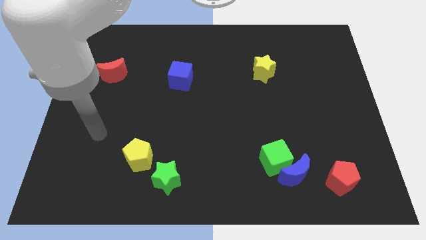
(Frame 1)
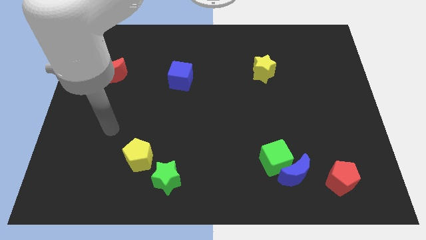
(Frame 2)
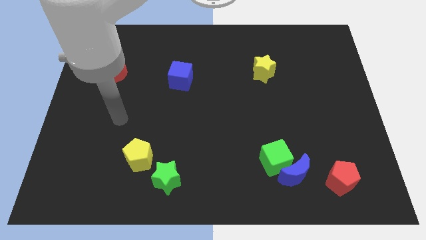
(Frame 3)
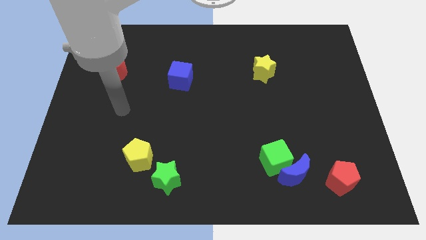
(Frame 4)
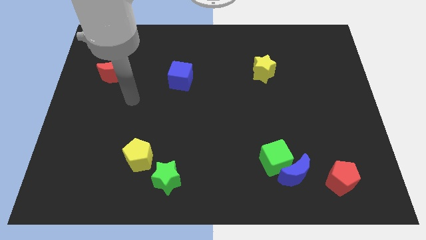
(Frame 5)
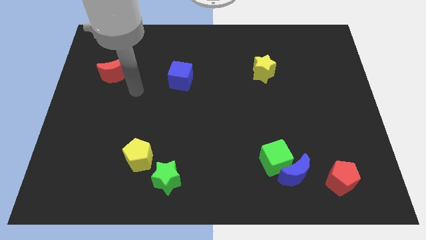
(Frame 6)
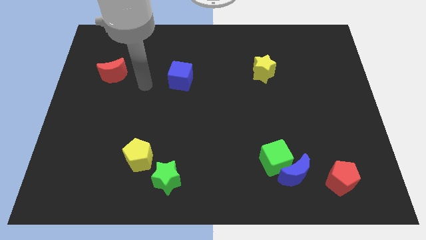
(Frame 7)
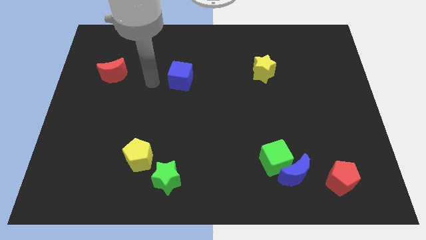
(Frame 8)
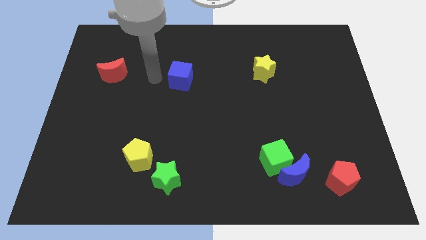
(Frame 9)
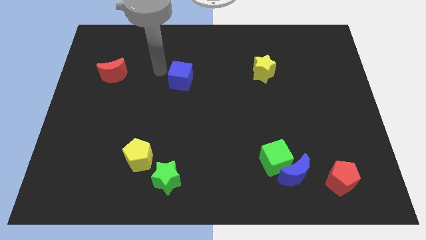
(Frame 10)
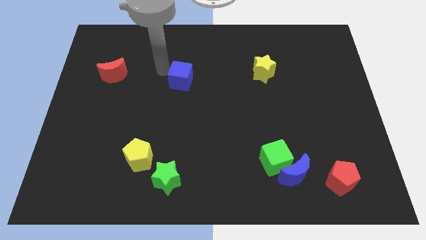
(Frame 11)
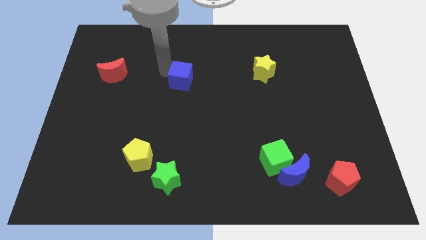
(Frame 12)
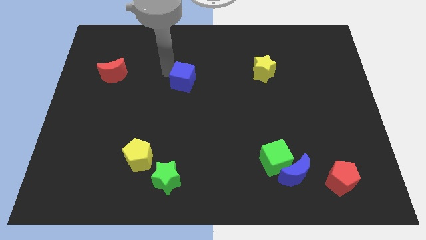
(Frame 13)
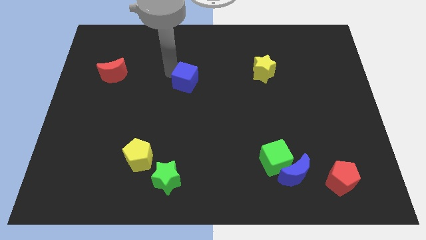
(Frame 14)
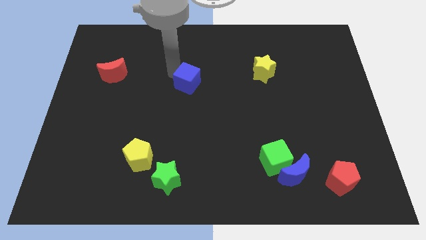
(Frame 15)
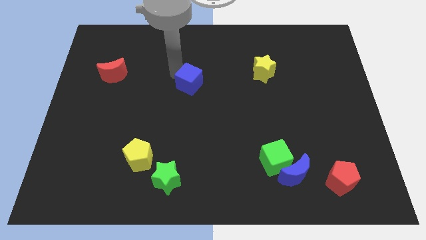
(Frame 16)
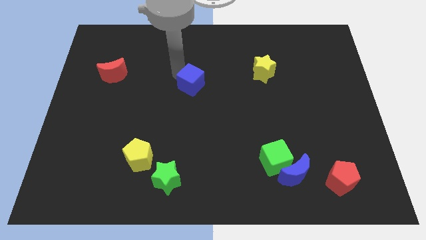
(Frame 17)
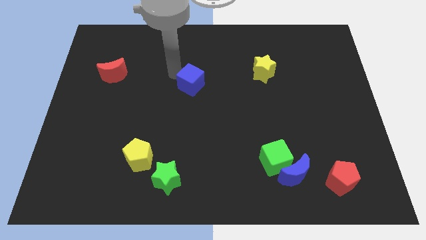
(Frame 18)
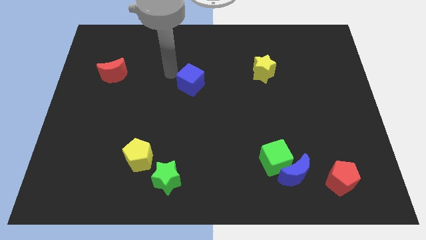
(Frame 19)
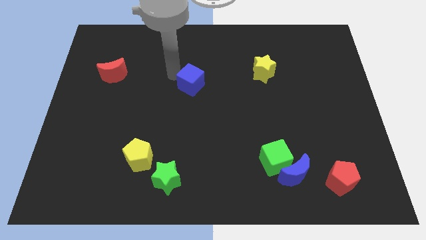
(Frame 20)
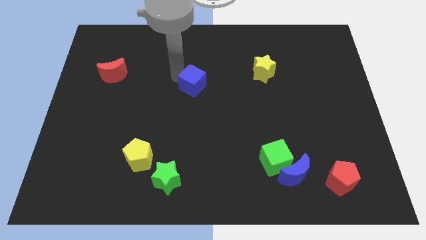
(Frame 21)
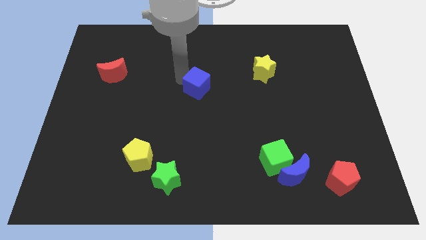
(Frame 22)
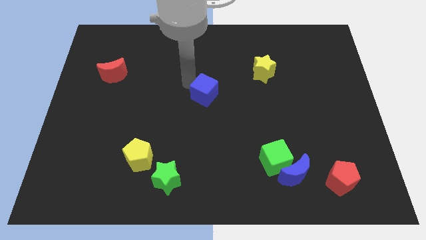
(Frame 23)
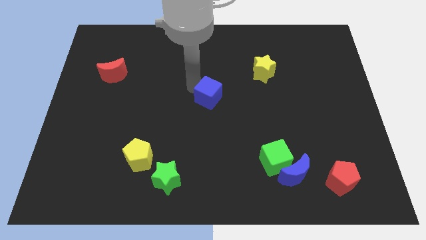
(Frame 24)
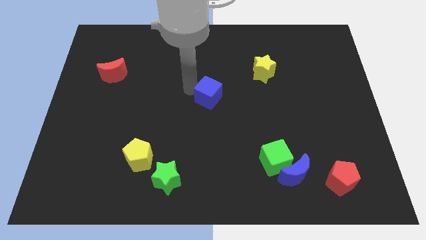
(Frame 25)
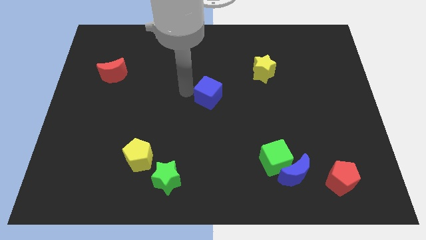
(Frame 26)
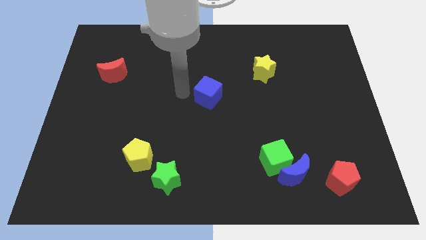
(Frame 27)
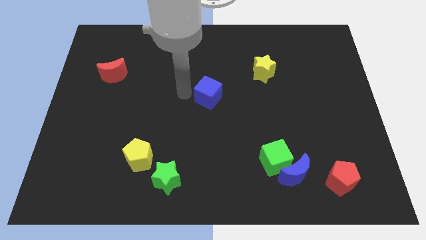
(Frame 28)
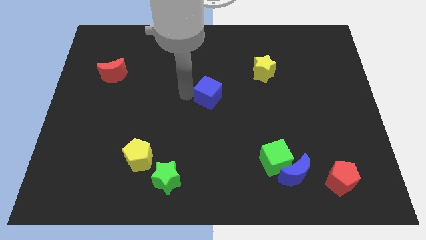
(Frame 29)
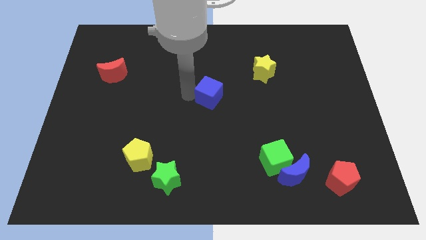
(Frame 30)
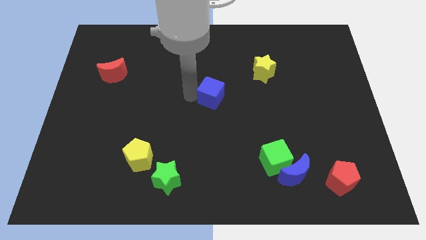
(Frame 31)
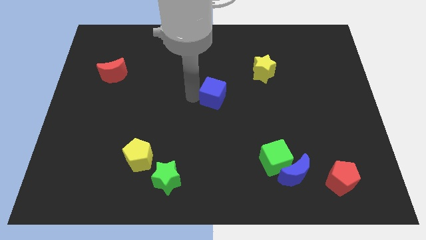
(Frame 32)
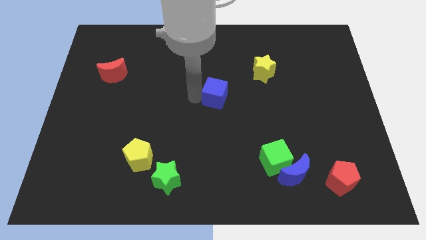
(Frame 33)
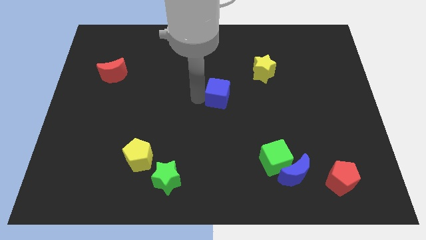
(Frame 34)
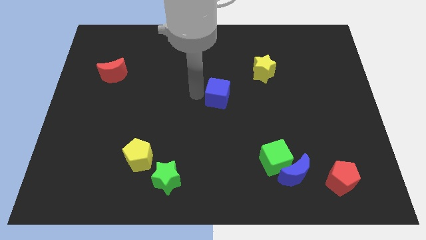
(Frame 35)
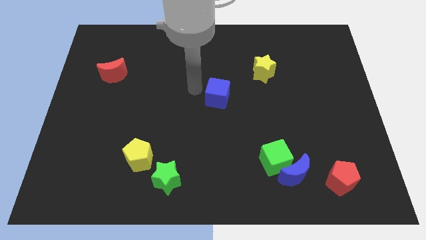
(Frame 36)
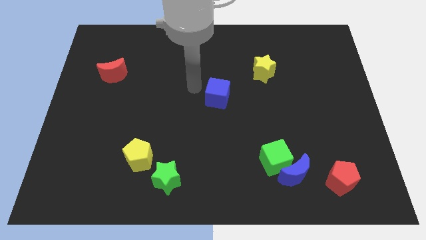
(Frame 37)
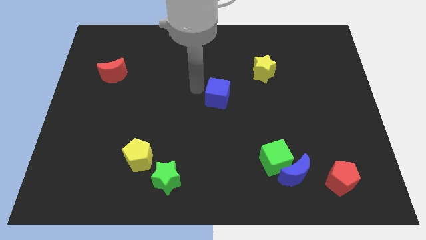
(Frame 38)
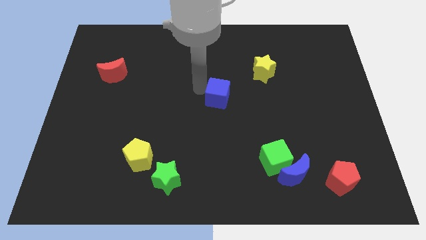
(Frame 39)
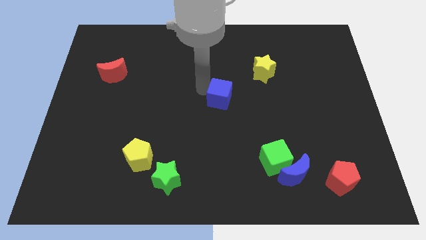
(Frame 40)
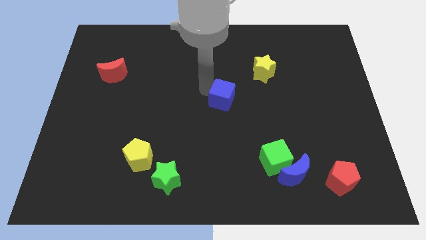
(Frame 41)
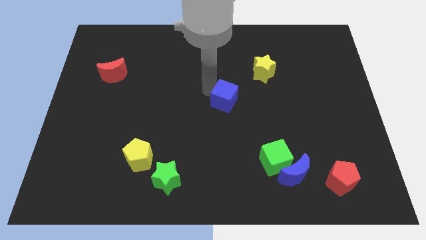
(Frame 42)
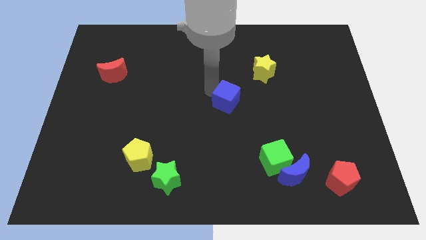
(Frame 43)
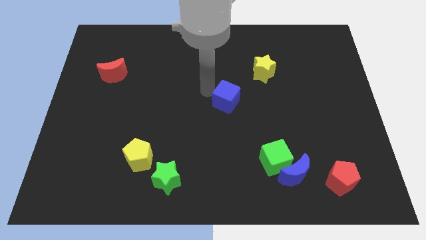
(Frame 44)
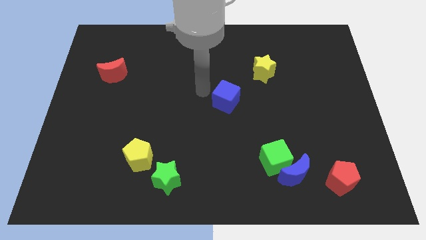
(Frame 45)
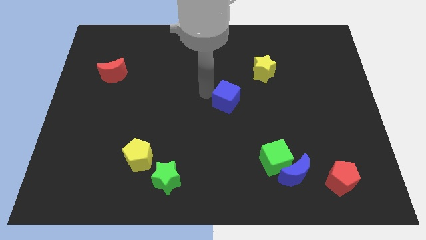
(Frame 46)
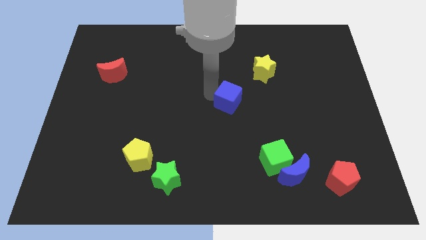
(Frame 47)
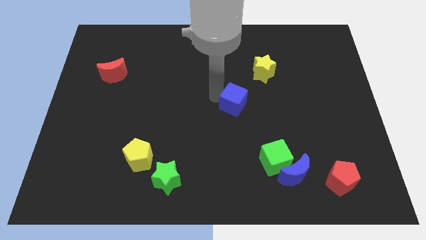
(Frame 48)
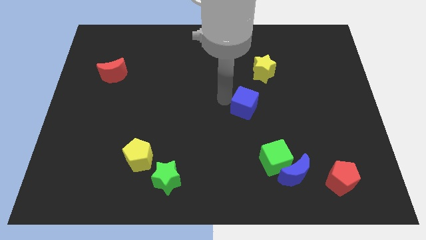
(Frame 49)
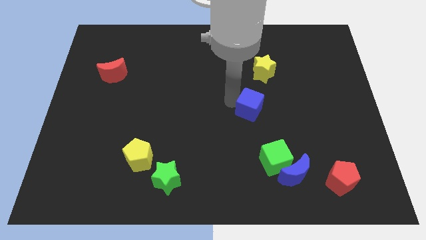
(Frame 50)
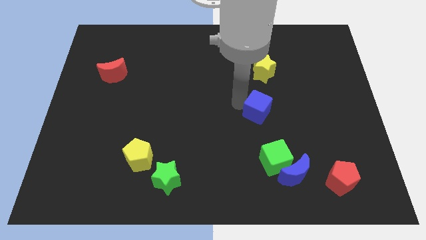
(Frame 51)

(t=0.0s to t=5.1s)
push the blue cube above the green cube

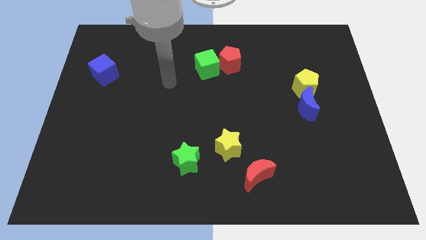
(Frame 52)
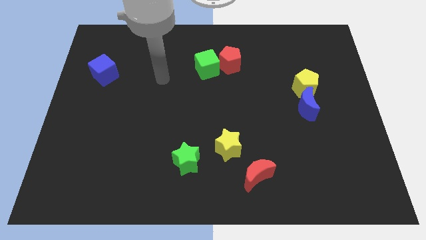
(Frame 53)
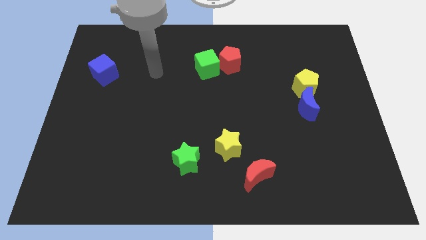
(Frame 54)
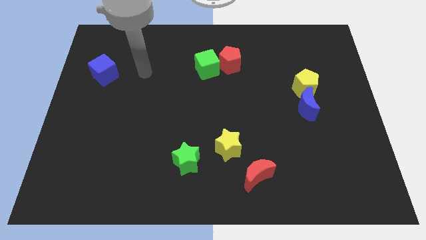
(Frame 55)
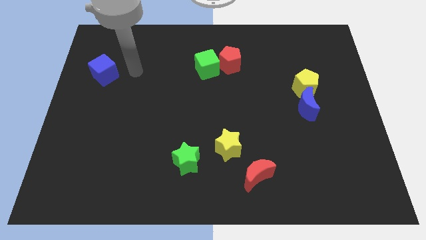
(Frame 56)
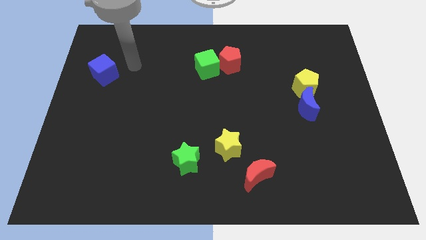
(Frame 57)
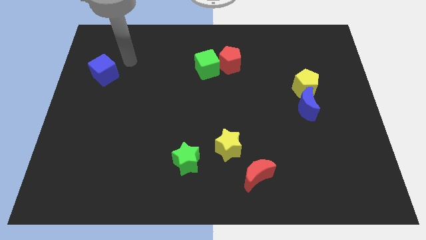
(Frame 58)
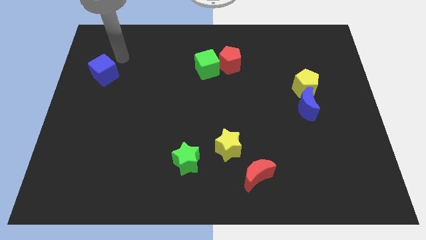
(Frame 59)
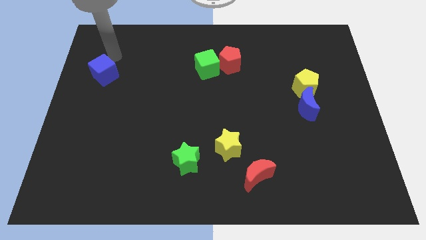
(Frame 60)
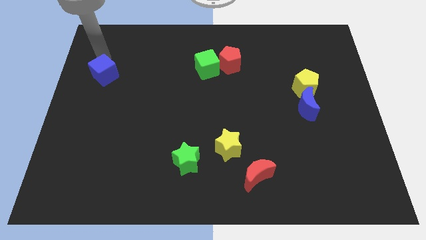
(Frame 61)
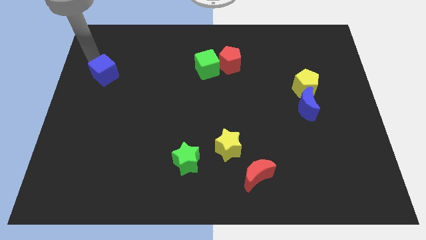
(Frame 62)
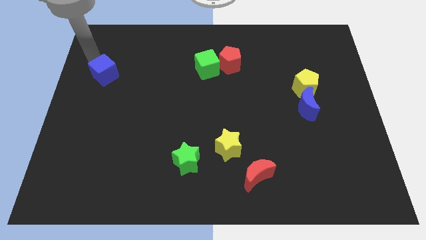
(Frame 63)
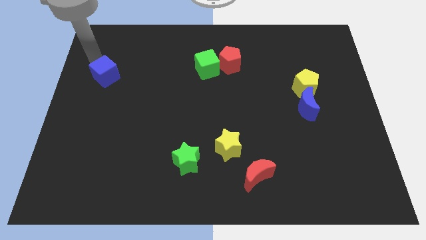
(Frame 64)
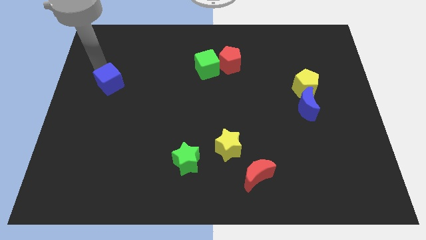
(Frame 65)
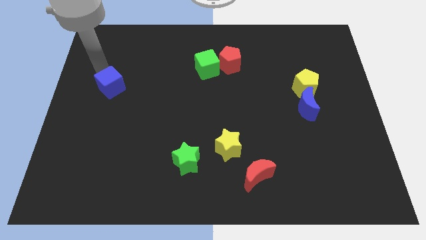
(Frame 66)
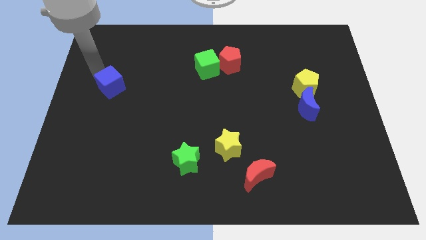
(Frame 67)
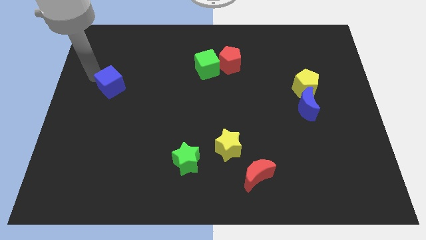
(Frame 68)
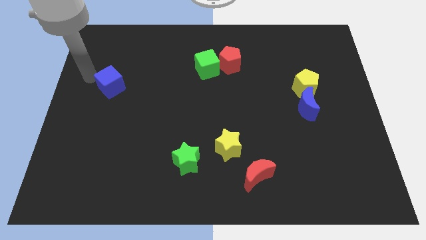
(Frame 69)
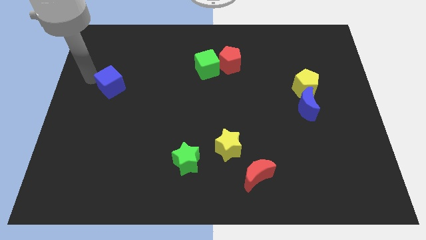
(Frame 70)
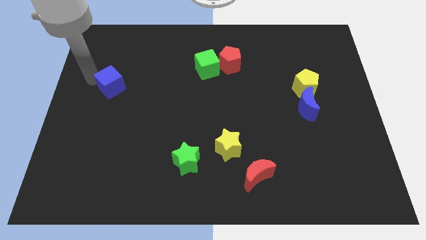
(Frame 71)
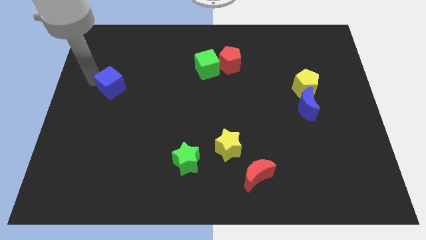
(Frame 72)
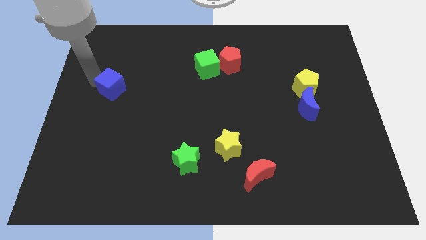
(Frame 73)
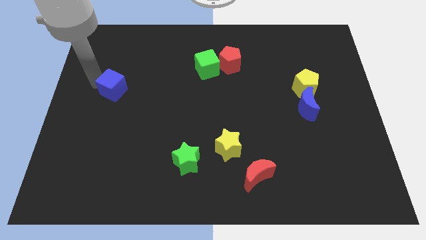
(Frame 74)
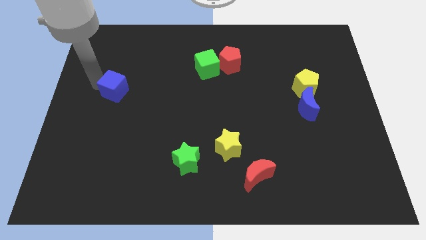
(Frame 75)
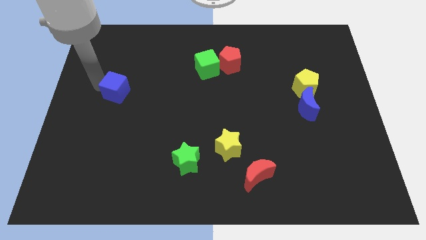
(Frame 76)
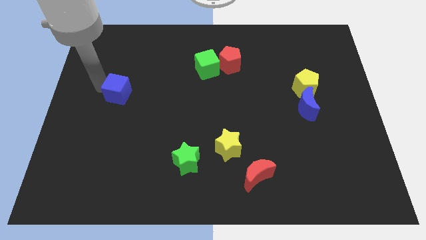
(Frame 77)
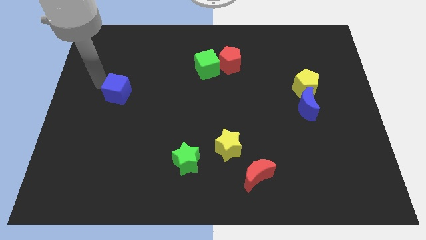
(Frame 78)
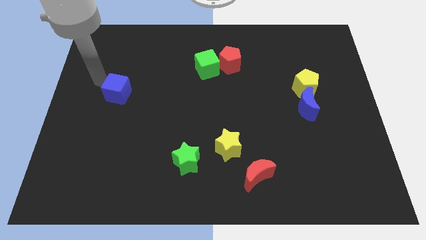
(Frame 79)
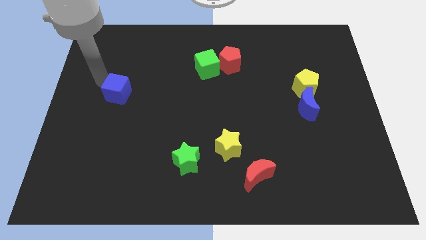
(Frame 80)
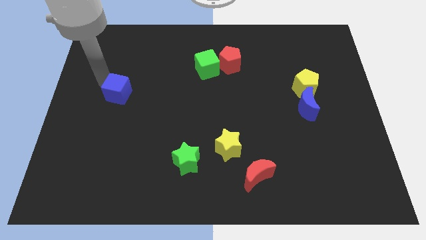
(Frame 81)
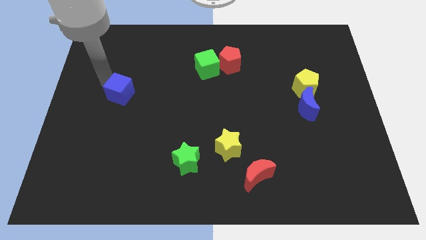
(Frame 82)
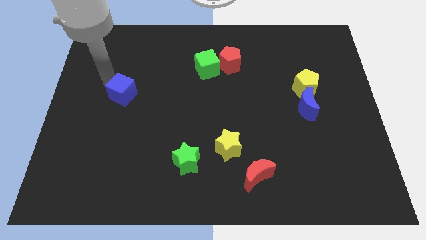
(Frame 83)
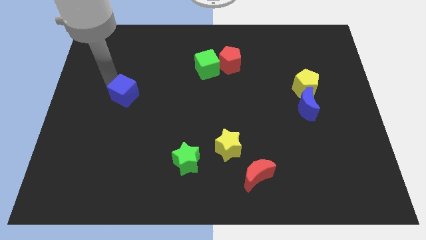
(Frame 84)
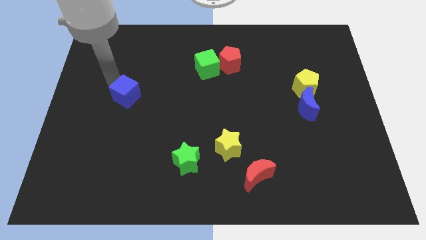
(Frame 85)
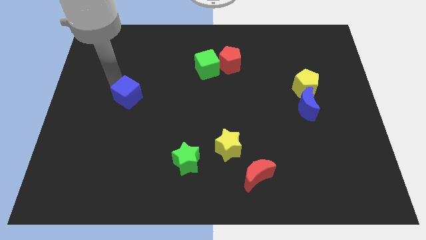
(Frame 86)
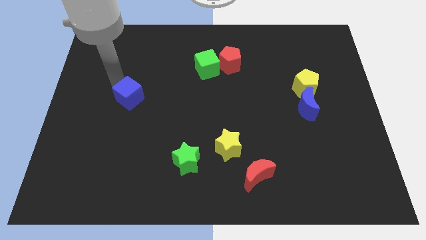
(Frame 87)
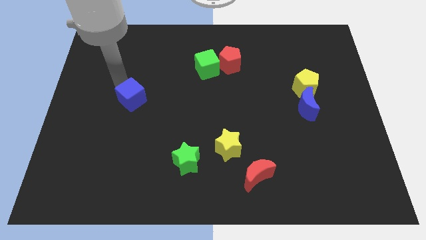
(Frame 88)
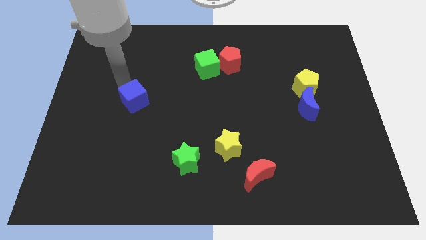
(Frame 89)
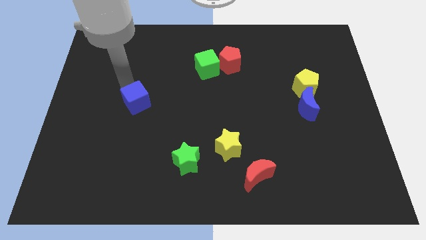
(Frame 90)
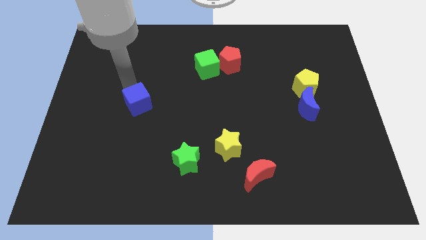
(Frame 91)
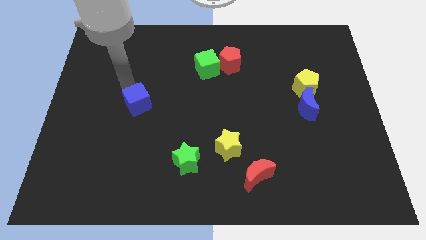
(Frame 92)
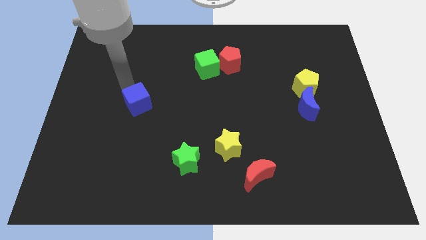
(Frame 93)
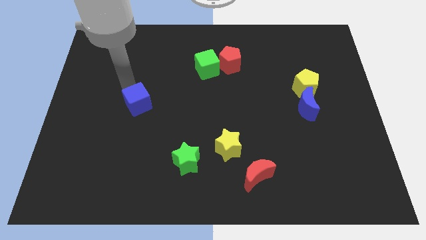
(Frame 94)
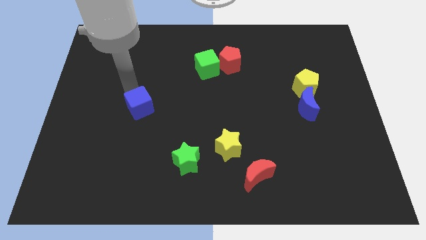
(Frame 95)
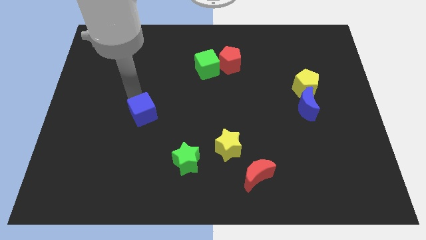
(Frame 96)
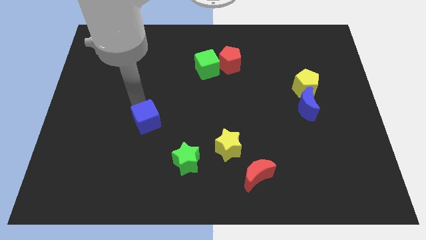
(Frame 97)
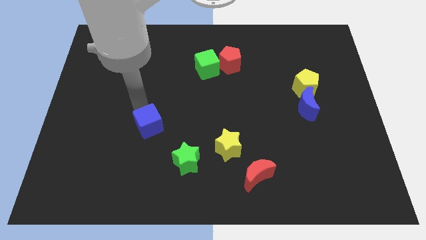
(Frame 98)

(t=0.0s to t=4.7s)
put the blue cube to the top left side of the green star
